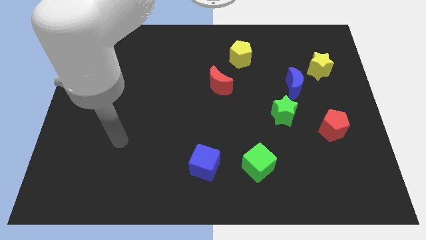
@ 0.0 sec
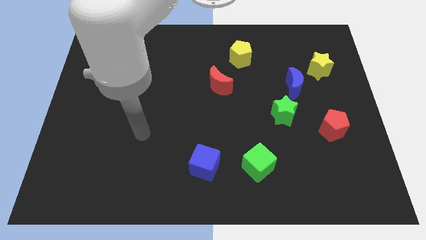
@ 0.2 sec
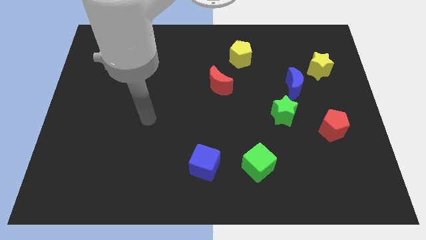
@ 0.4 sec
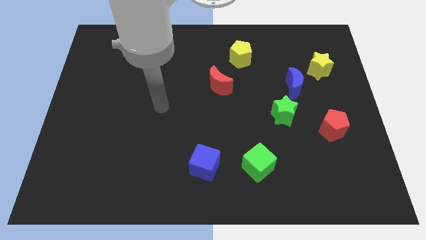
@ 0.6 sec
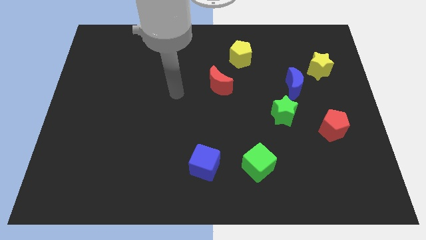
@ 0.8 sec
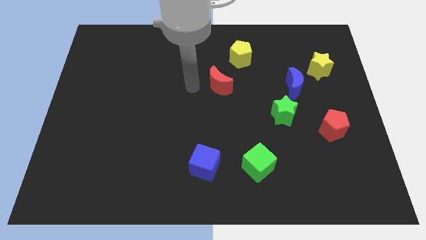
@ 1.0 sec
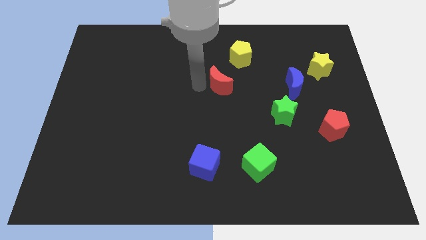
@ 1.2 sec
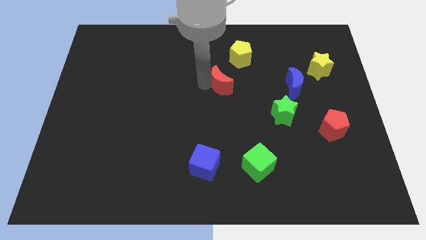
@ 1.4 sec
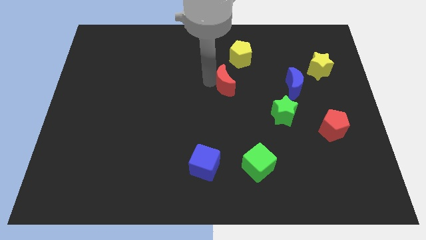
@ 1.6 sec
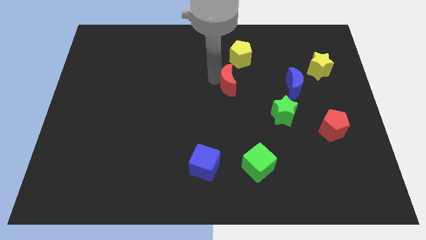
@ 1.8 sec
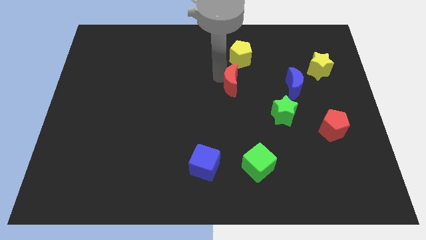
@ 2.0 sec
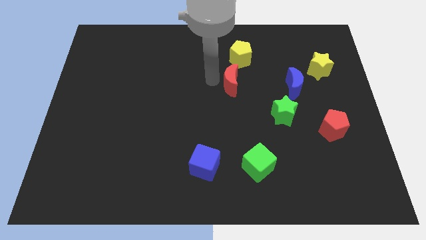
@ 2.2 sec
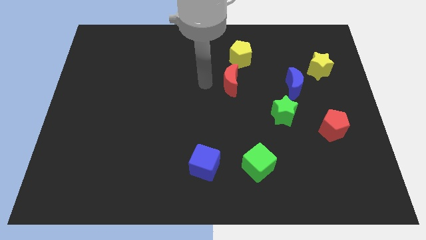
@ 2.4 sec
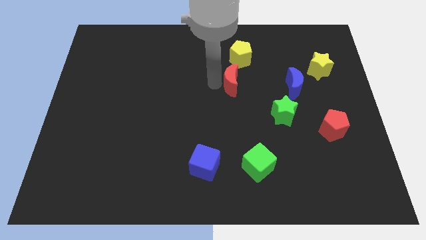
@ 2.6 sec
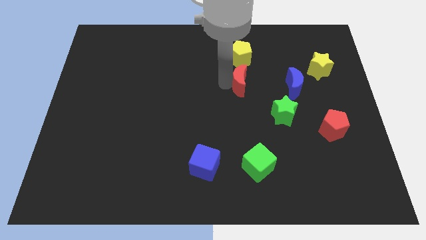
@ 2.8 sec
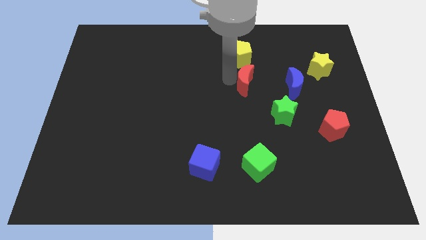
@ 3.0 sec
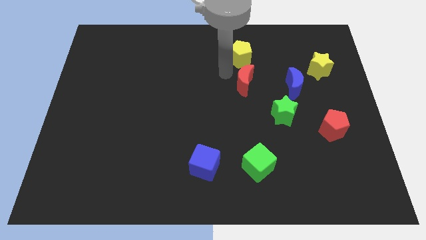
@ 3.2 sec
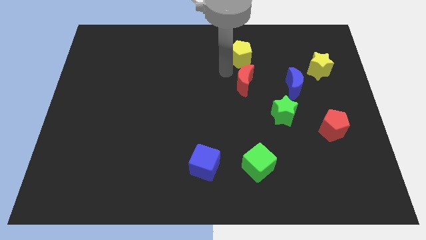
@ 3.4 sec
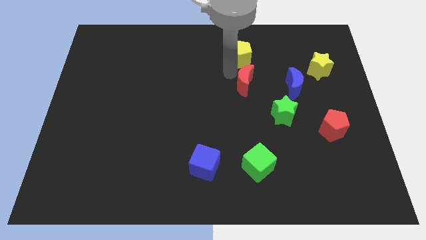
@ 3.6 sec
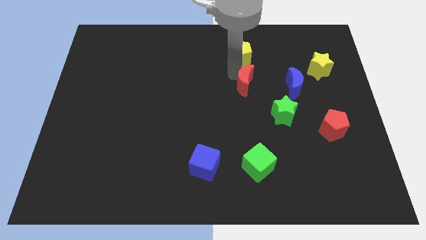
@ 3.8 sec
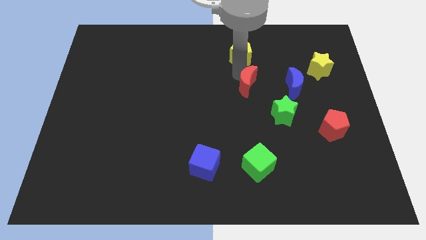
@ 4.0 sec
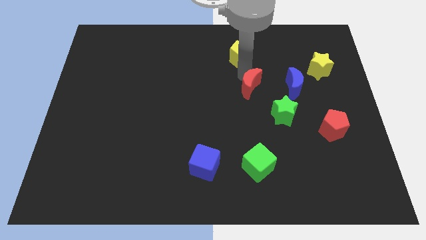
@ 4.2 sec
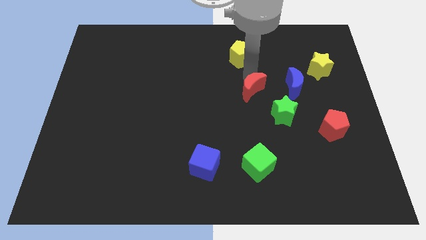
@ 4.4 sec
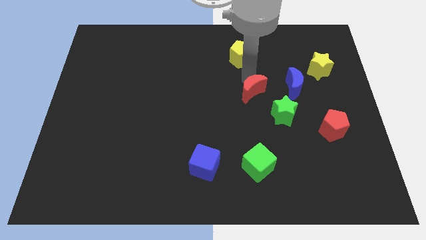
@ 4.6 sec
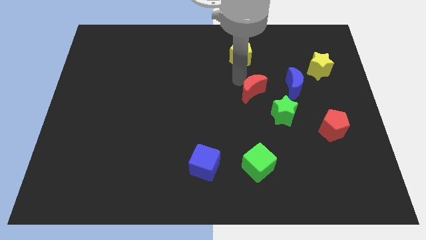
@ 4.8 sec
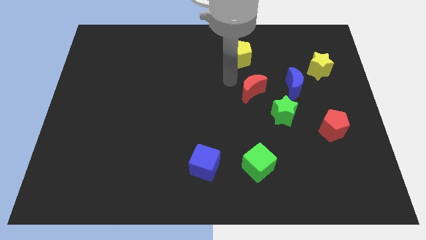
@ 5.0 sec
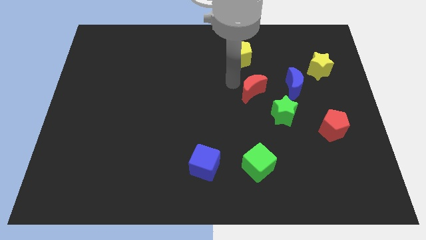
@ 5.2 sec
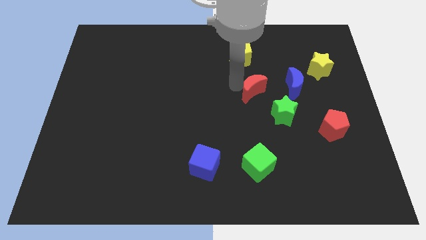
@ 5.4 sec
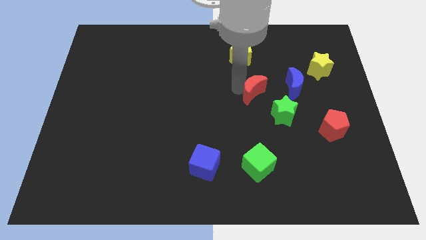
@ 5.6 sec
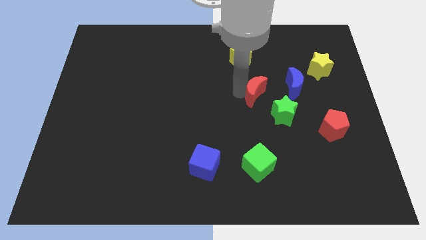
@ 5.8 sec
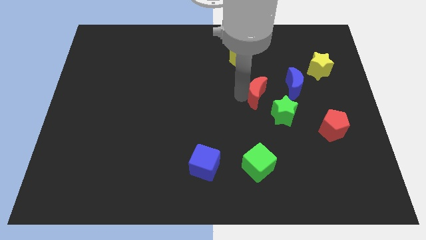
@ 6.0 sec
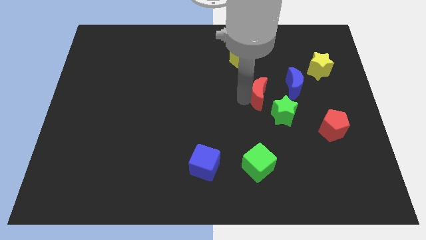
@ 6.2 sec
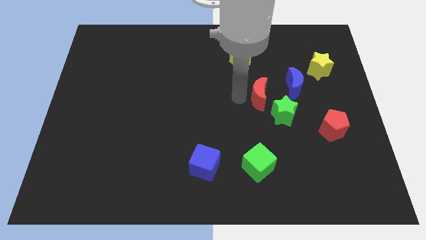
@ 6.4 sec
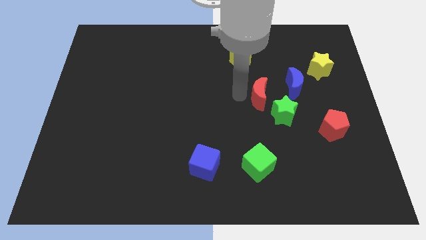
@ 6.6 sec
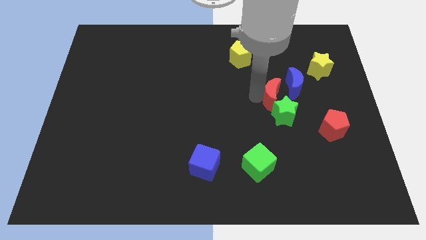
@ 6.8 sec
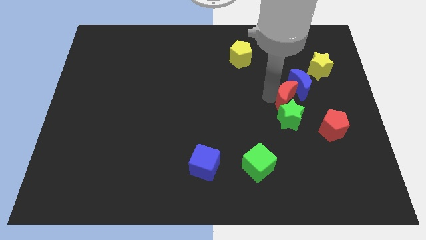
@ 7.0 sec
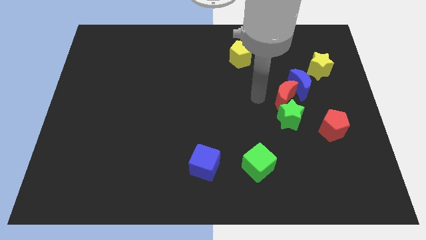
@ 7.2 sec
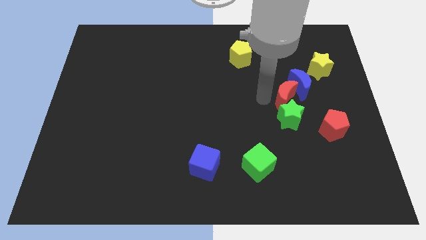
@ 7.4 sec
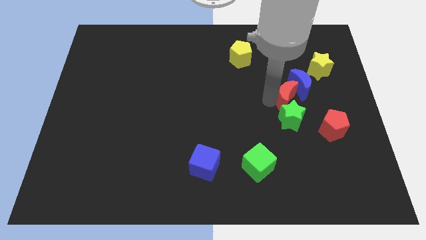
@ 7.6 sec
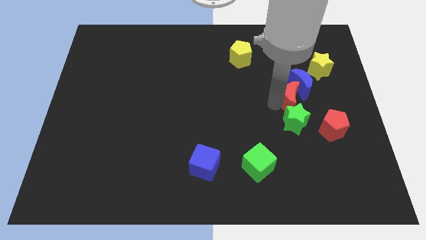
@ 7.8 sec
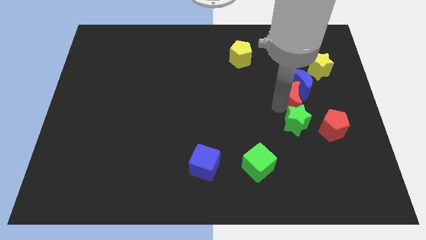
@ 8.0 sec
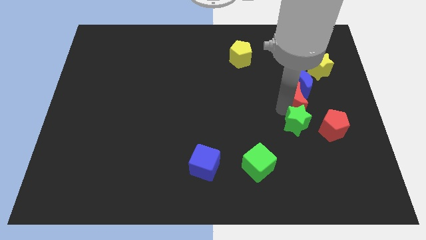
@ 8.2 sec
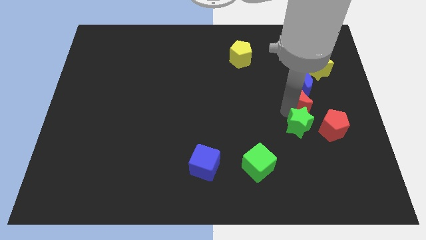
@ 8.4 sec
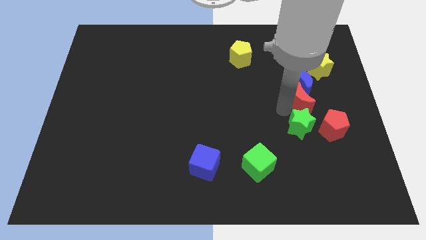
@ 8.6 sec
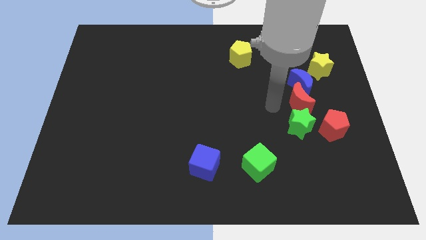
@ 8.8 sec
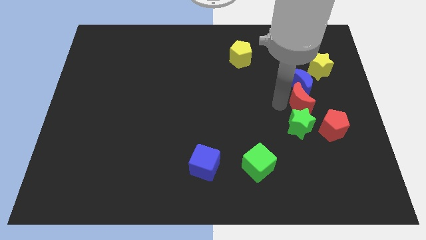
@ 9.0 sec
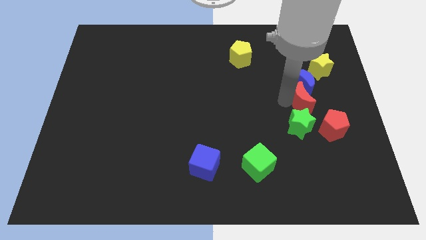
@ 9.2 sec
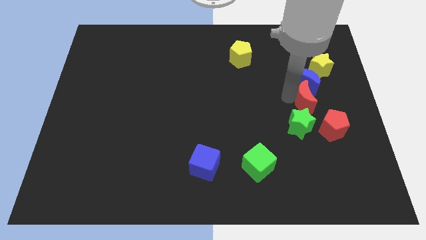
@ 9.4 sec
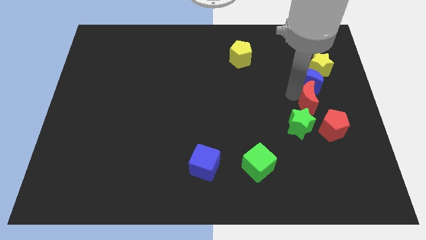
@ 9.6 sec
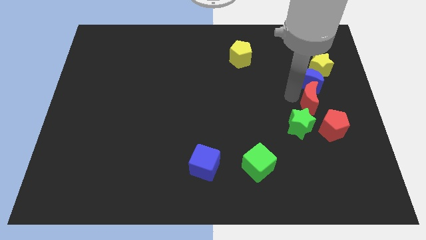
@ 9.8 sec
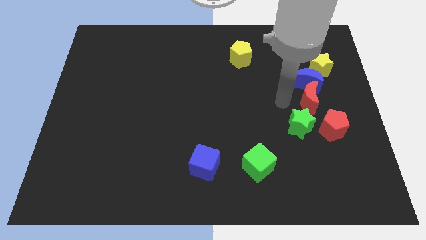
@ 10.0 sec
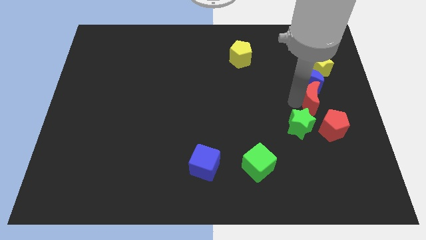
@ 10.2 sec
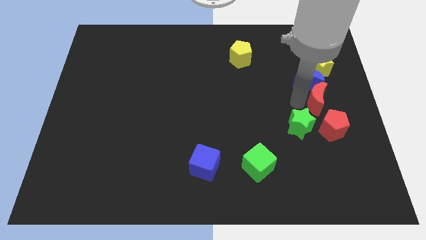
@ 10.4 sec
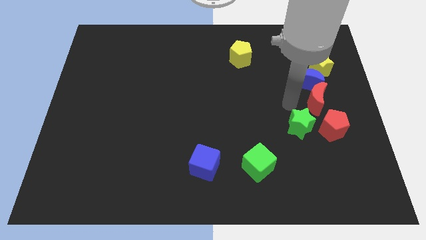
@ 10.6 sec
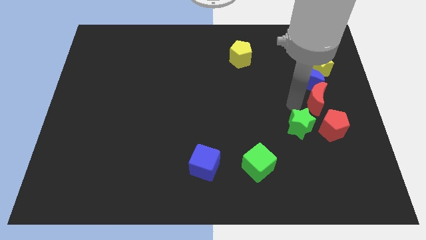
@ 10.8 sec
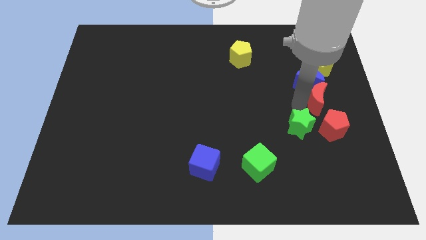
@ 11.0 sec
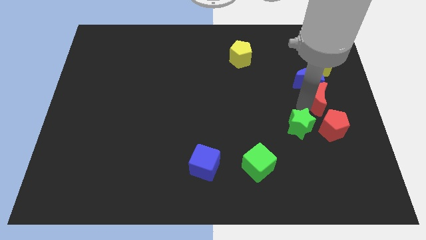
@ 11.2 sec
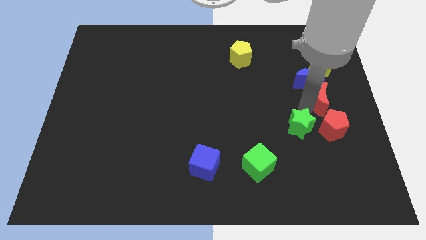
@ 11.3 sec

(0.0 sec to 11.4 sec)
put the red moon to the center right
